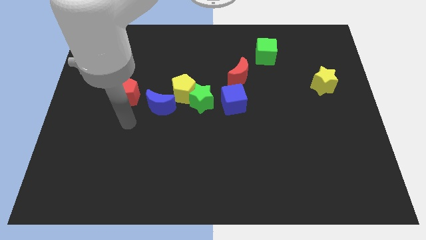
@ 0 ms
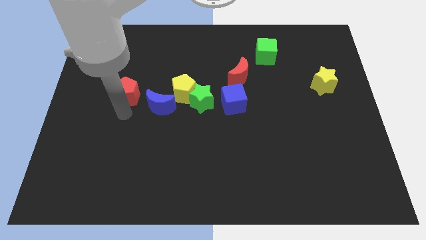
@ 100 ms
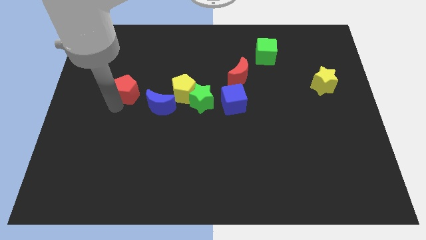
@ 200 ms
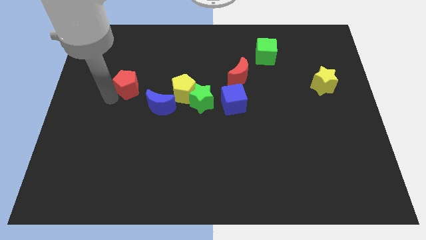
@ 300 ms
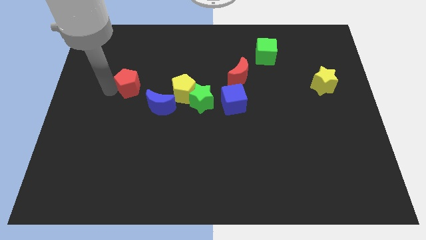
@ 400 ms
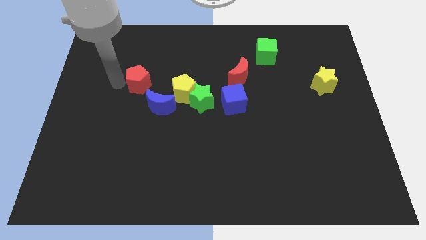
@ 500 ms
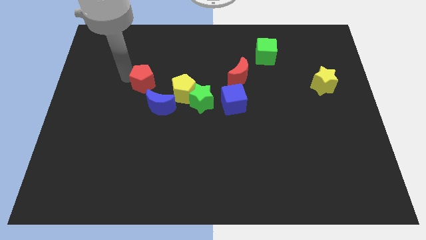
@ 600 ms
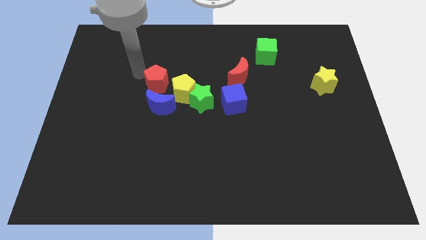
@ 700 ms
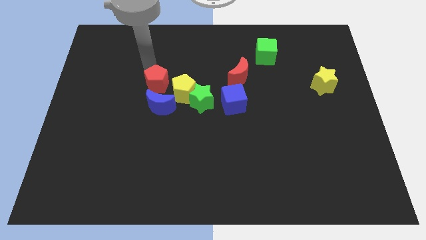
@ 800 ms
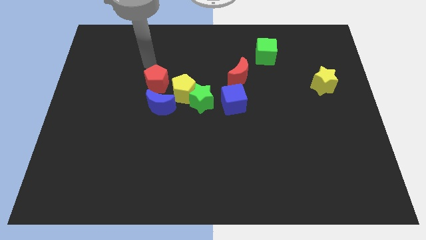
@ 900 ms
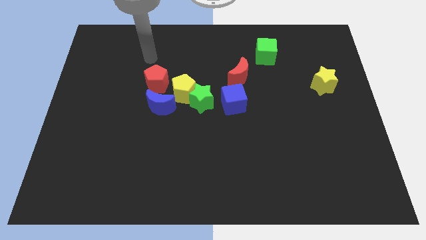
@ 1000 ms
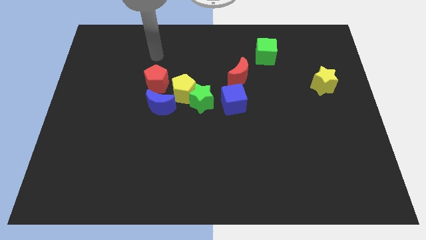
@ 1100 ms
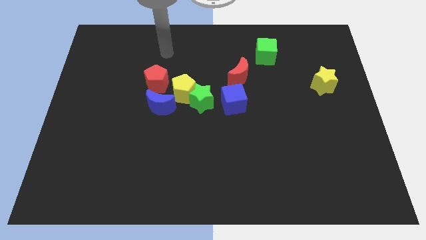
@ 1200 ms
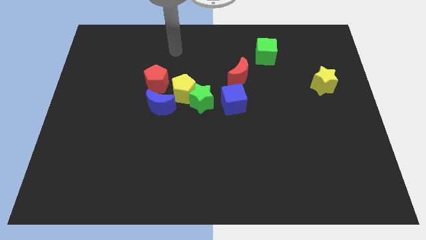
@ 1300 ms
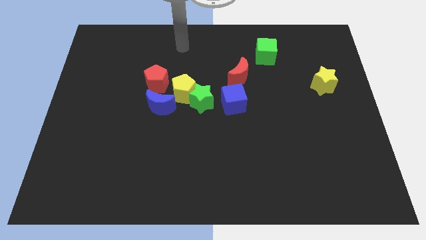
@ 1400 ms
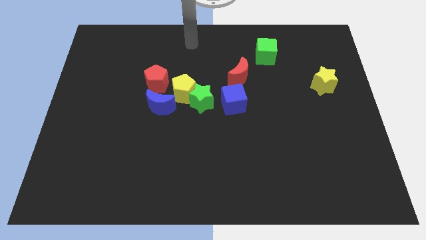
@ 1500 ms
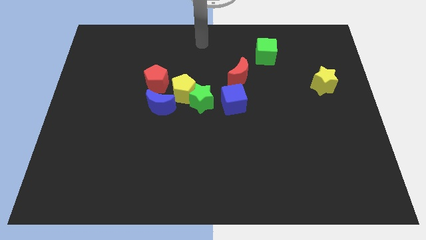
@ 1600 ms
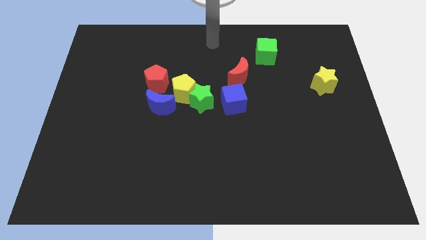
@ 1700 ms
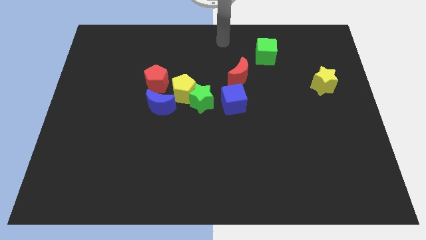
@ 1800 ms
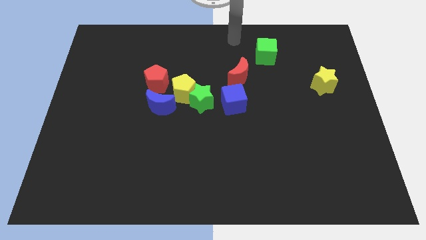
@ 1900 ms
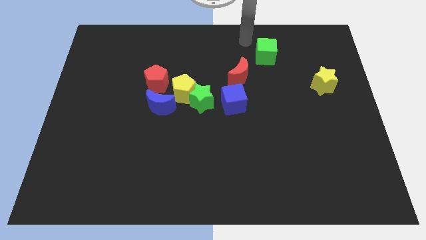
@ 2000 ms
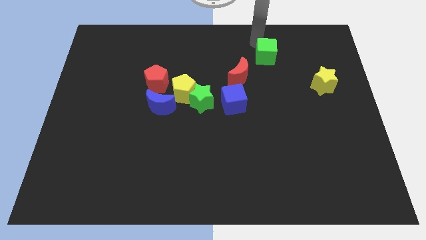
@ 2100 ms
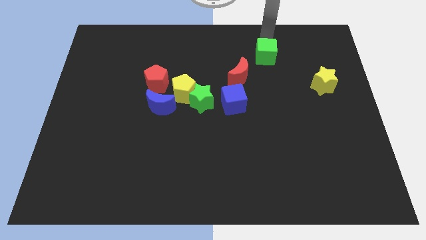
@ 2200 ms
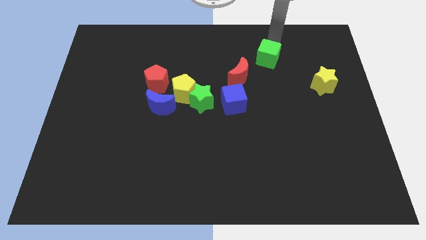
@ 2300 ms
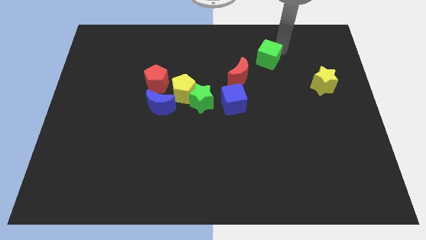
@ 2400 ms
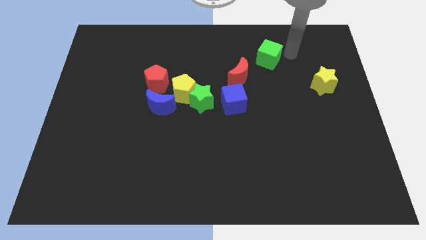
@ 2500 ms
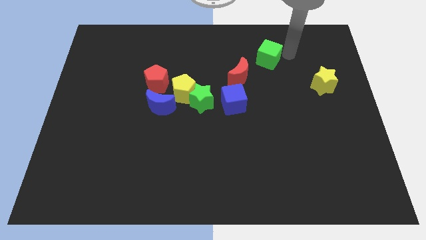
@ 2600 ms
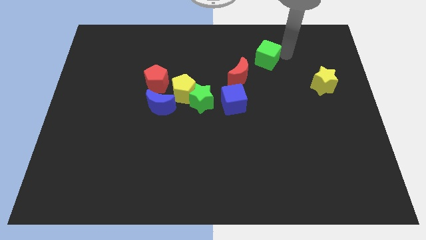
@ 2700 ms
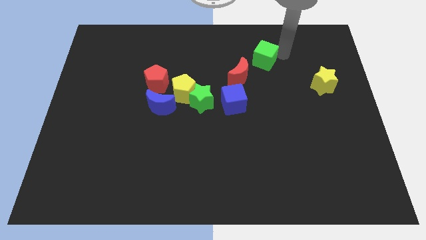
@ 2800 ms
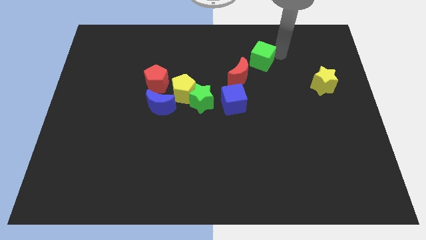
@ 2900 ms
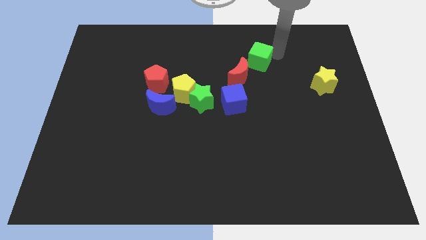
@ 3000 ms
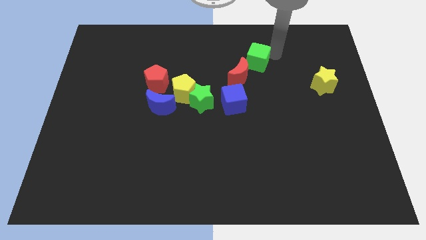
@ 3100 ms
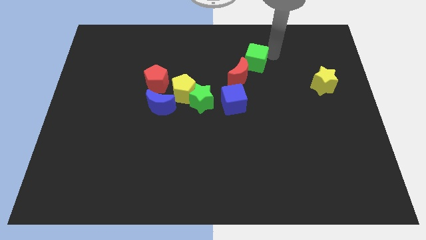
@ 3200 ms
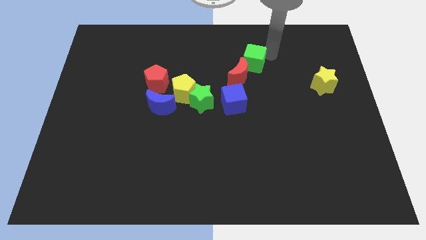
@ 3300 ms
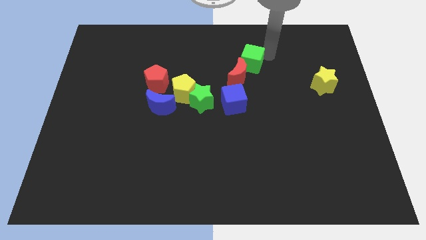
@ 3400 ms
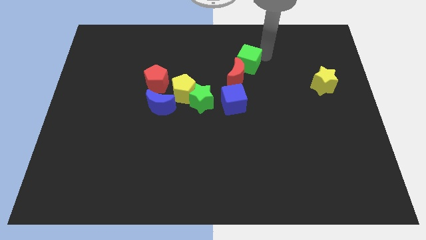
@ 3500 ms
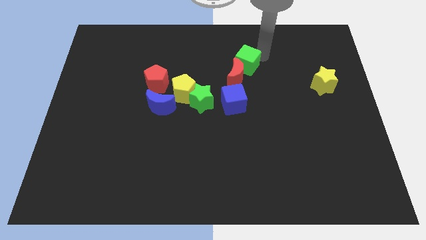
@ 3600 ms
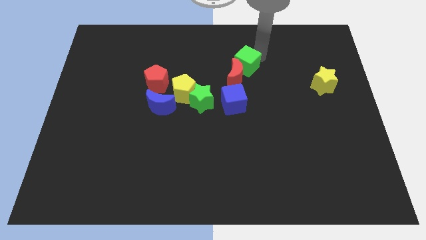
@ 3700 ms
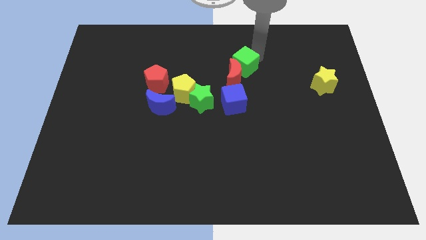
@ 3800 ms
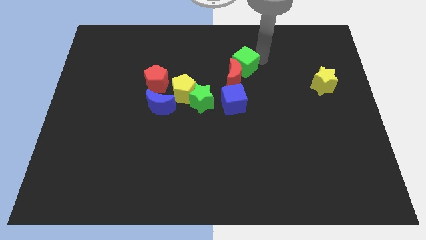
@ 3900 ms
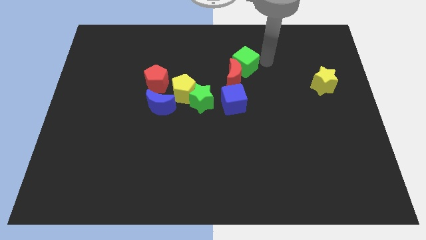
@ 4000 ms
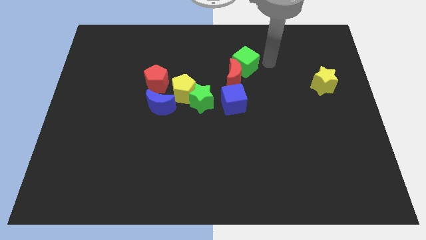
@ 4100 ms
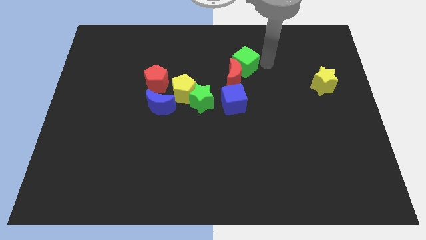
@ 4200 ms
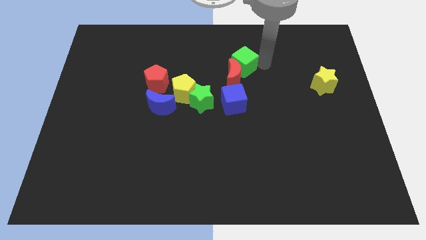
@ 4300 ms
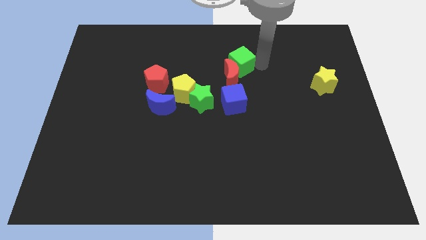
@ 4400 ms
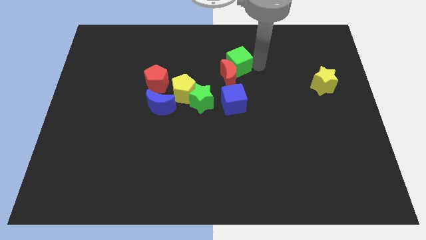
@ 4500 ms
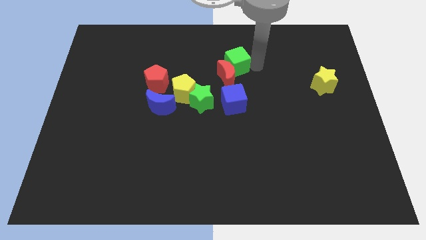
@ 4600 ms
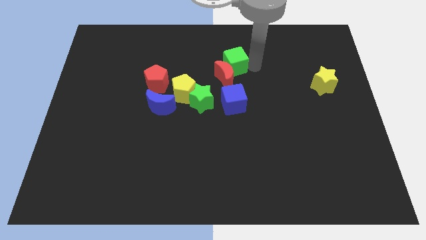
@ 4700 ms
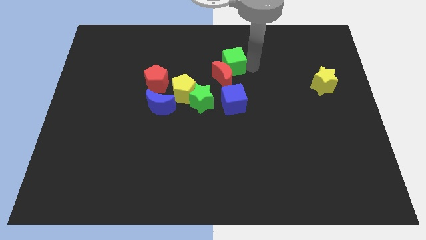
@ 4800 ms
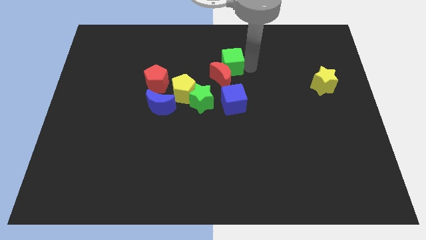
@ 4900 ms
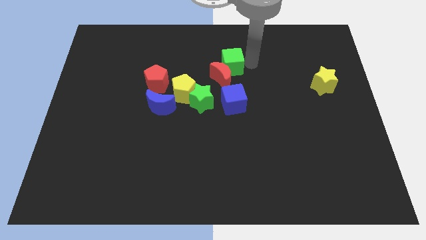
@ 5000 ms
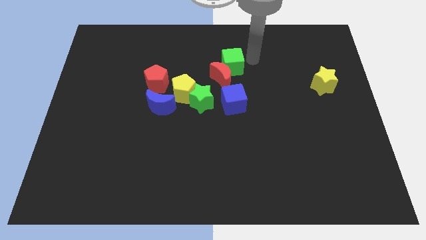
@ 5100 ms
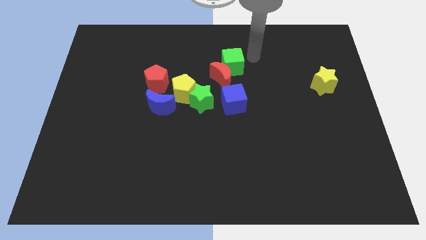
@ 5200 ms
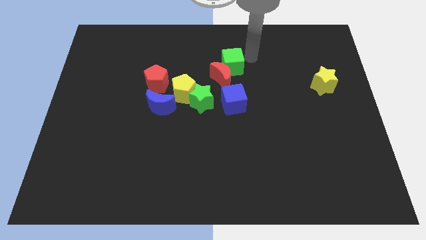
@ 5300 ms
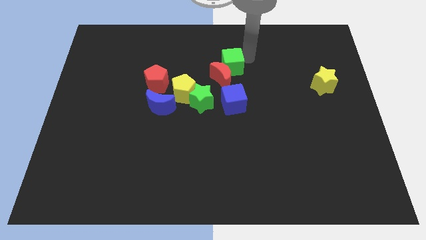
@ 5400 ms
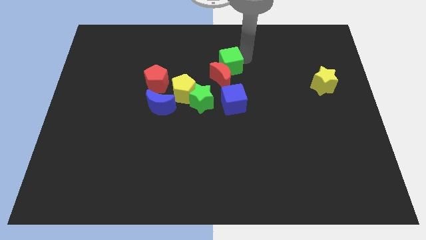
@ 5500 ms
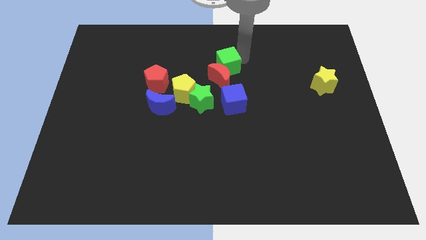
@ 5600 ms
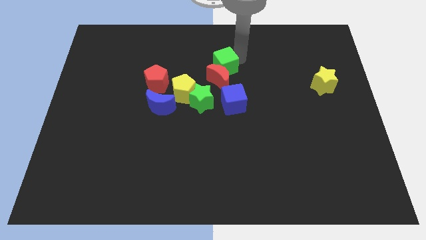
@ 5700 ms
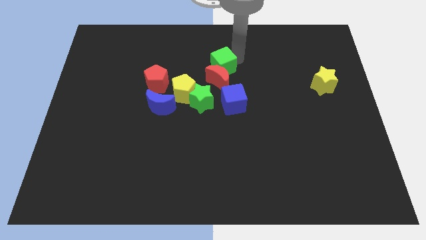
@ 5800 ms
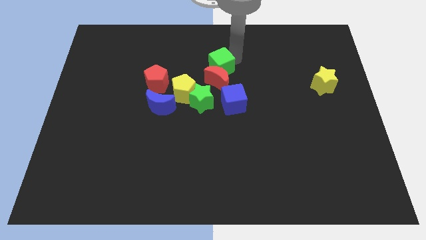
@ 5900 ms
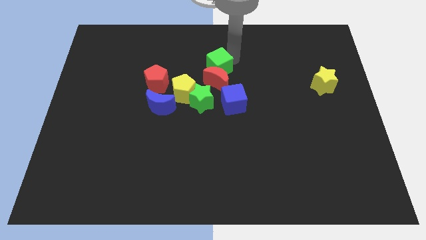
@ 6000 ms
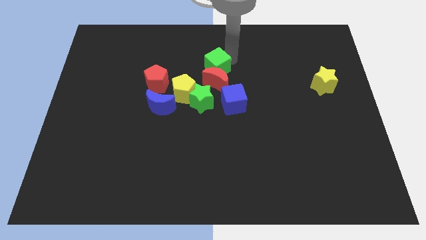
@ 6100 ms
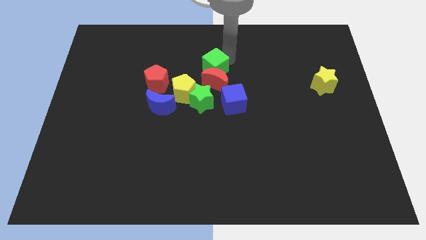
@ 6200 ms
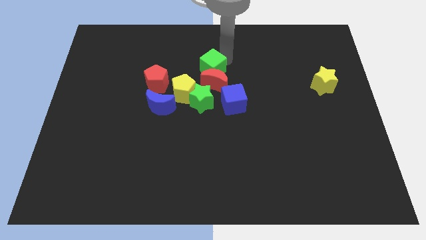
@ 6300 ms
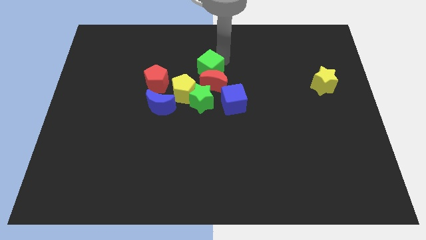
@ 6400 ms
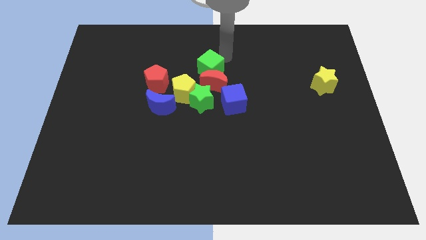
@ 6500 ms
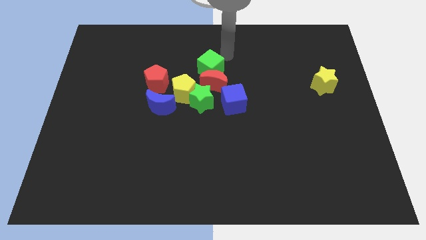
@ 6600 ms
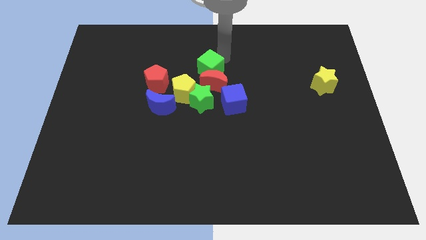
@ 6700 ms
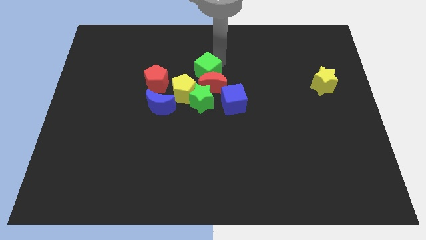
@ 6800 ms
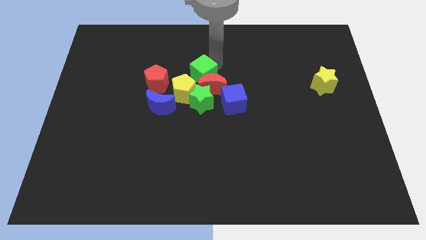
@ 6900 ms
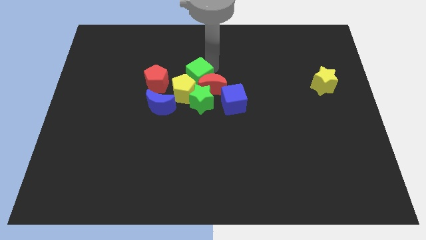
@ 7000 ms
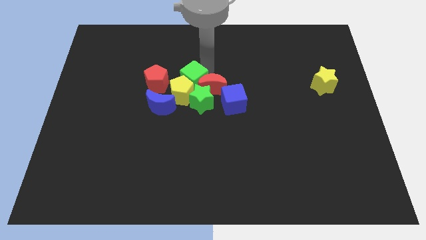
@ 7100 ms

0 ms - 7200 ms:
move the green cube diagonally up and to the right of the blue moon

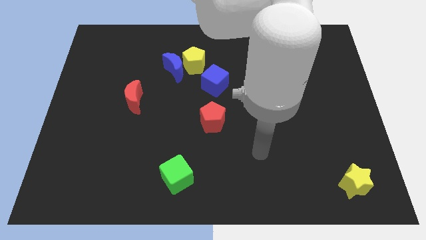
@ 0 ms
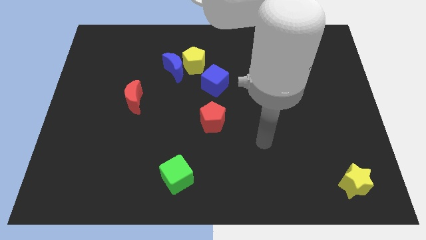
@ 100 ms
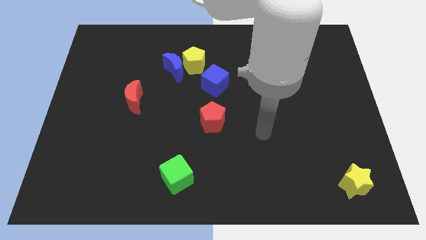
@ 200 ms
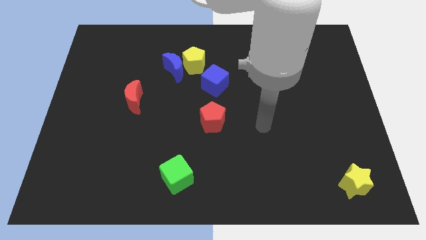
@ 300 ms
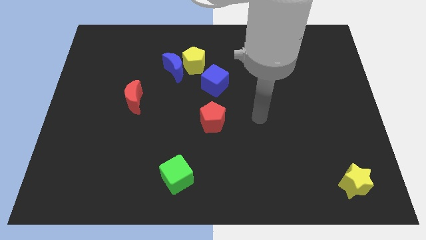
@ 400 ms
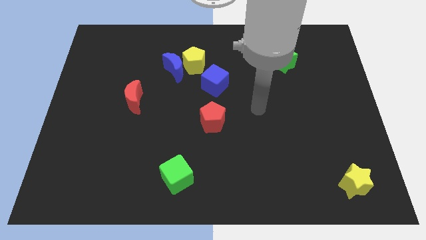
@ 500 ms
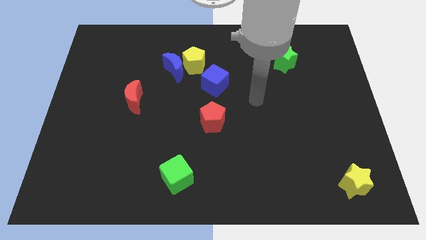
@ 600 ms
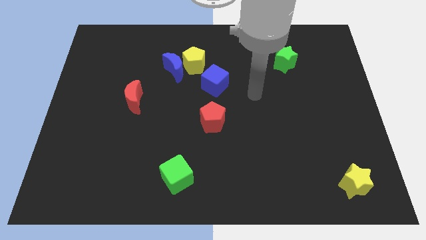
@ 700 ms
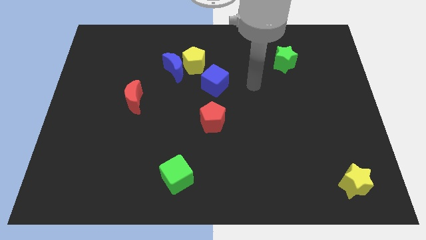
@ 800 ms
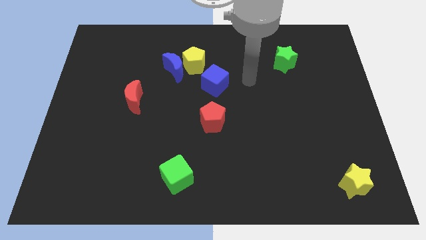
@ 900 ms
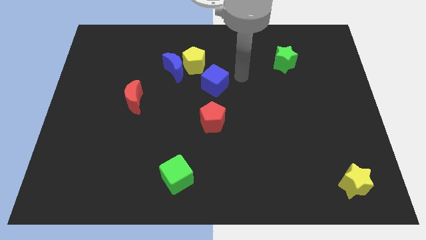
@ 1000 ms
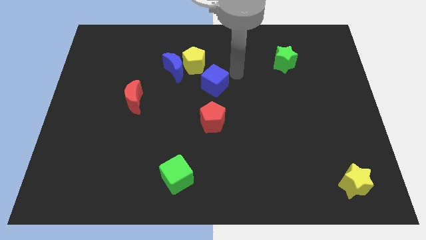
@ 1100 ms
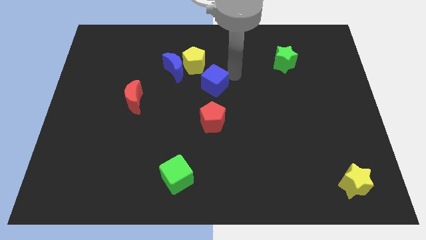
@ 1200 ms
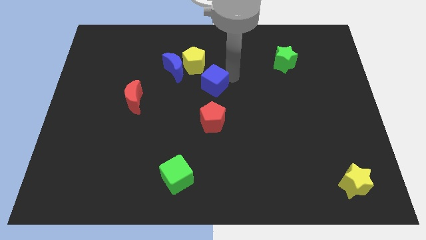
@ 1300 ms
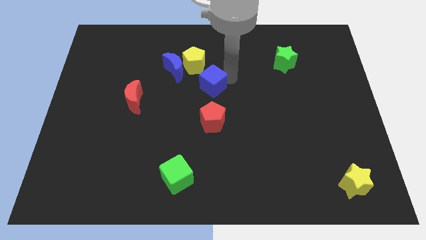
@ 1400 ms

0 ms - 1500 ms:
move the blue cube to the bottom side of the yellow pentagon
